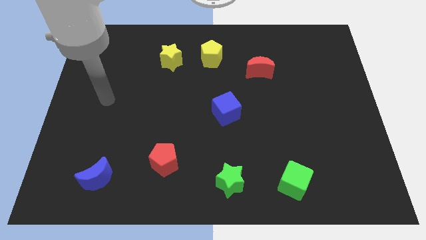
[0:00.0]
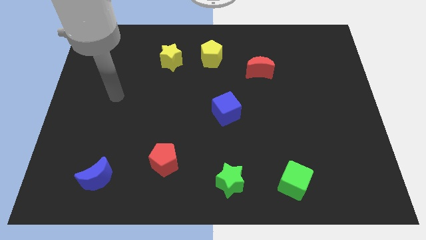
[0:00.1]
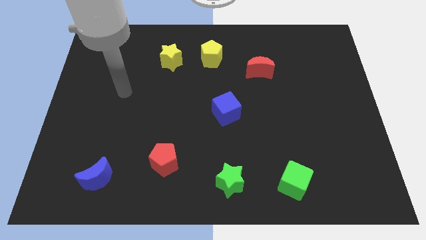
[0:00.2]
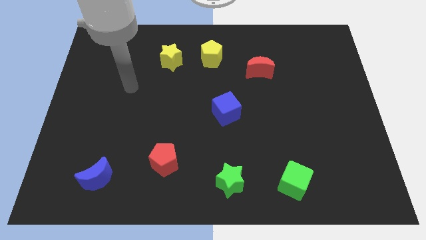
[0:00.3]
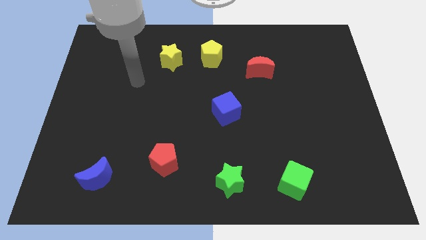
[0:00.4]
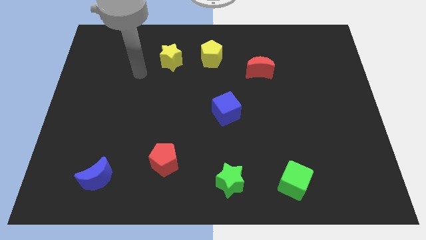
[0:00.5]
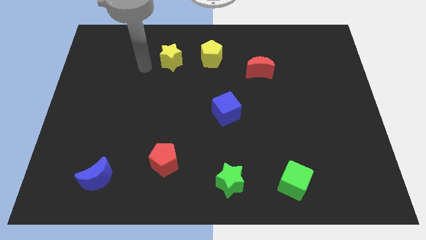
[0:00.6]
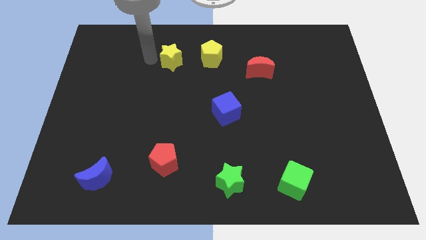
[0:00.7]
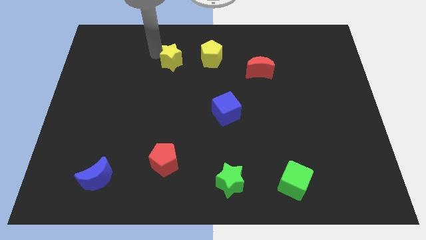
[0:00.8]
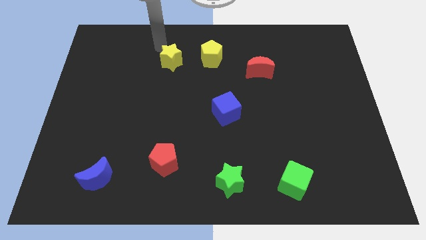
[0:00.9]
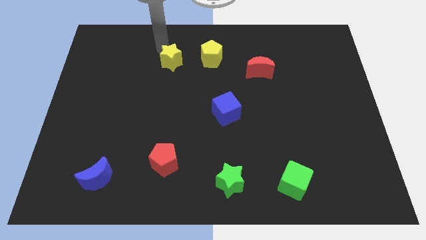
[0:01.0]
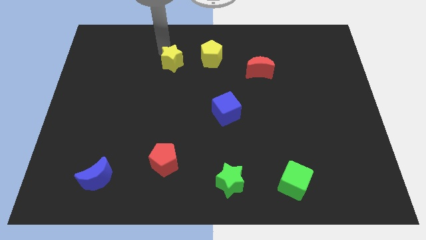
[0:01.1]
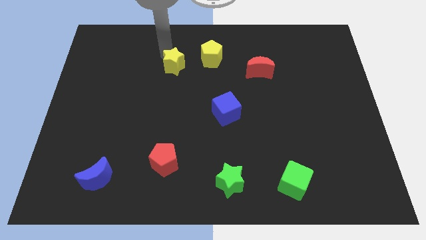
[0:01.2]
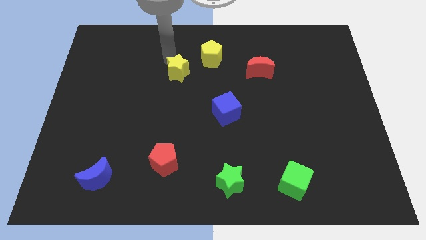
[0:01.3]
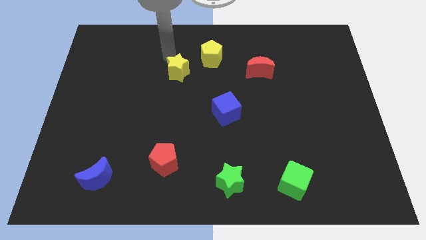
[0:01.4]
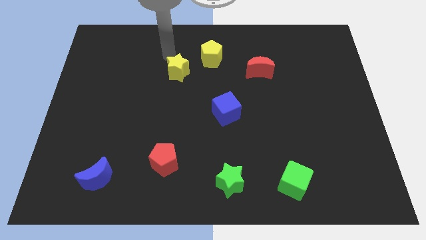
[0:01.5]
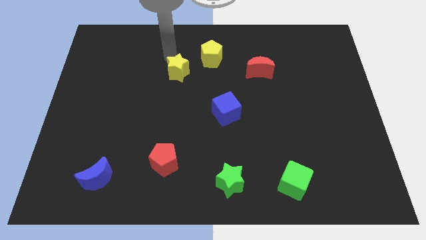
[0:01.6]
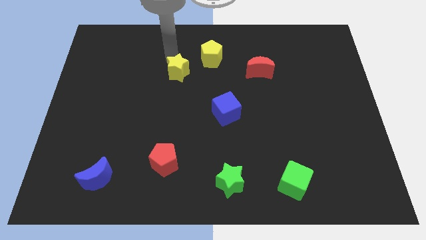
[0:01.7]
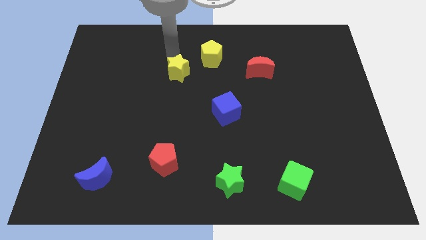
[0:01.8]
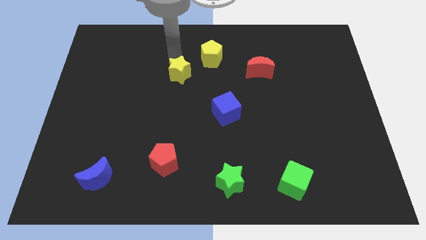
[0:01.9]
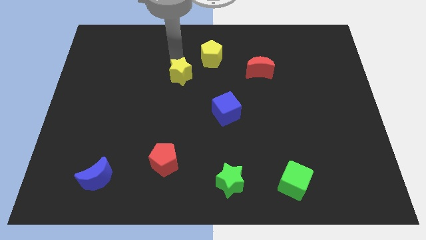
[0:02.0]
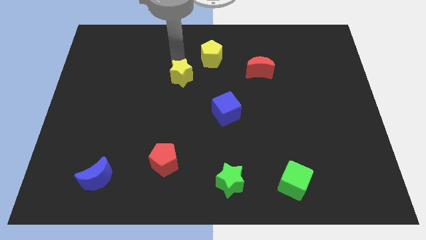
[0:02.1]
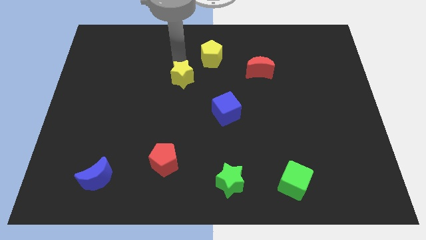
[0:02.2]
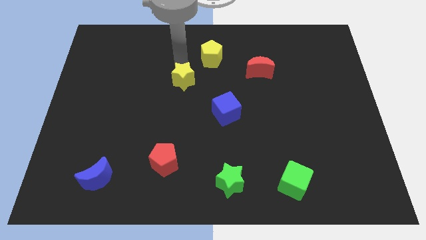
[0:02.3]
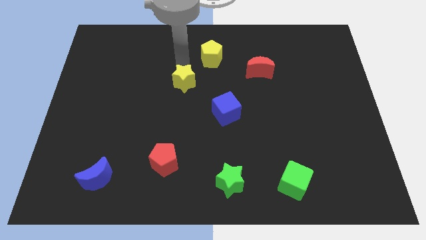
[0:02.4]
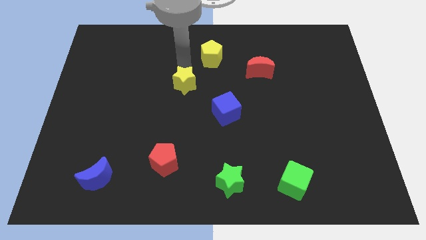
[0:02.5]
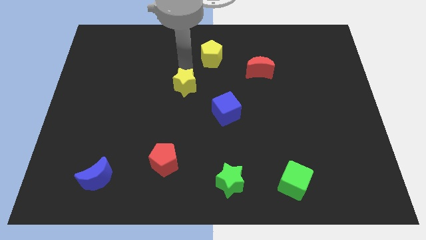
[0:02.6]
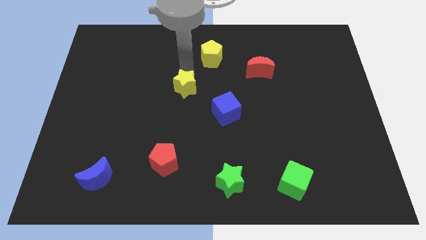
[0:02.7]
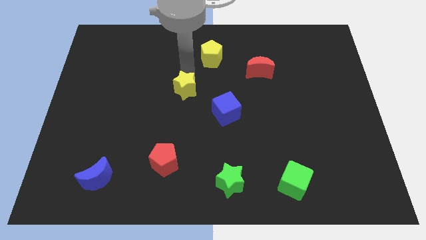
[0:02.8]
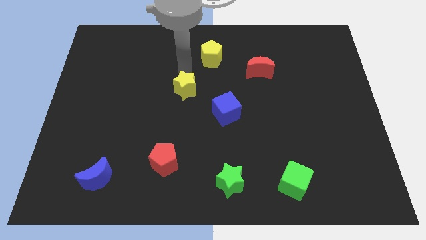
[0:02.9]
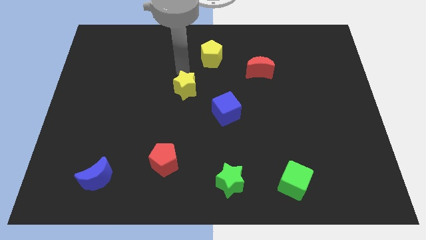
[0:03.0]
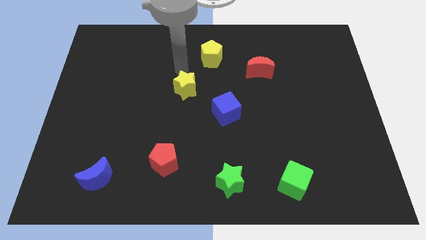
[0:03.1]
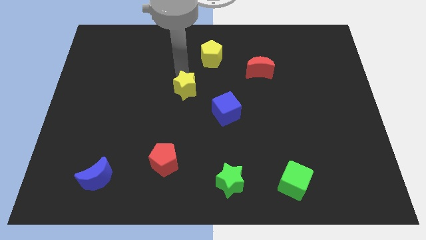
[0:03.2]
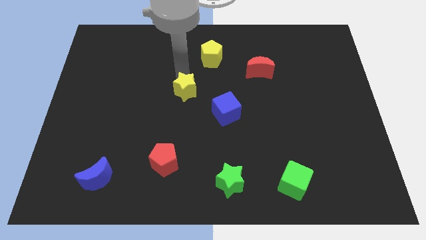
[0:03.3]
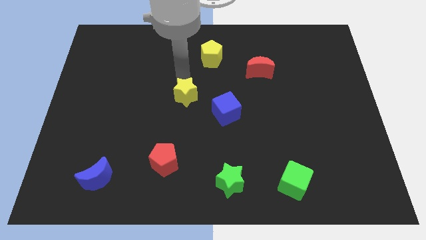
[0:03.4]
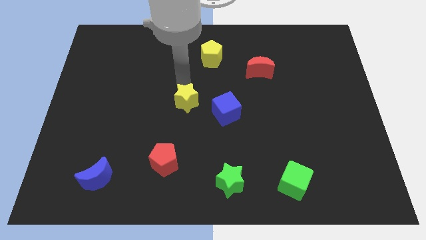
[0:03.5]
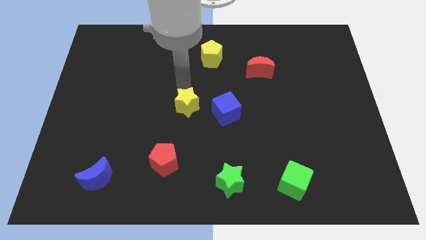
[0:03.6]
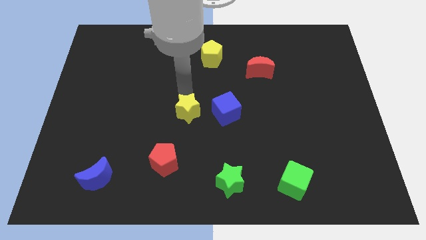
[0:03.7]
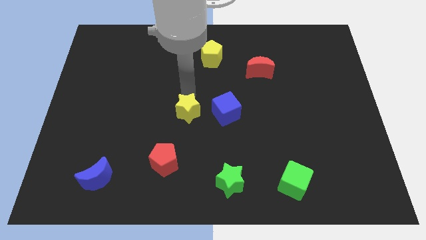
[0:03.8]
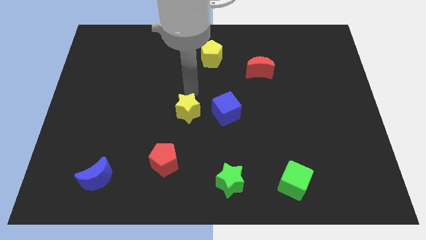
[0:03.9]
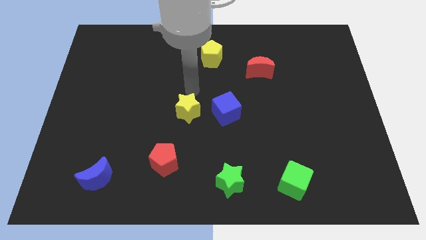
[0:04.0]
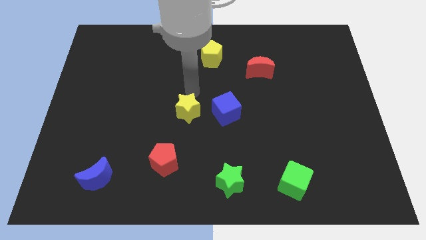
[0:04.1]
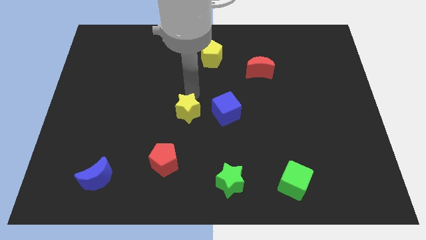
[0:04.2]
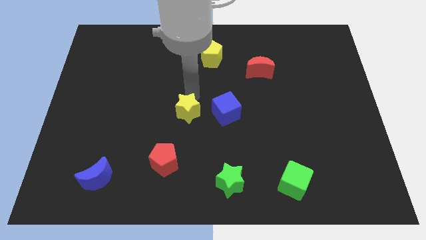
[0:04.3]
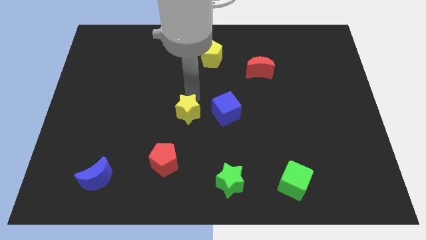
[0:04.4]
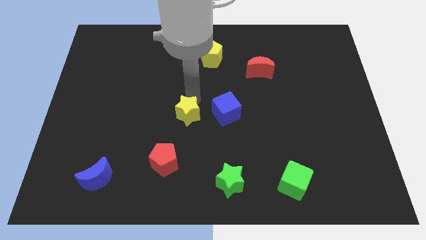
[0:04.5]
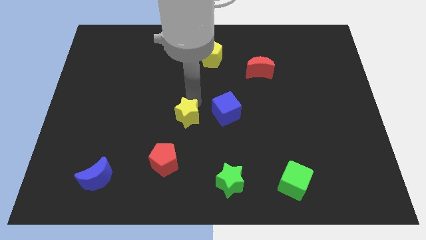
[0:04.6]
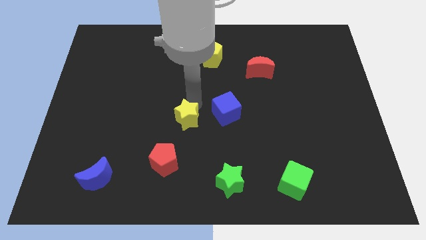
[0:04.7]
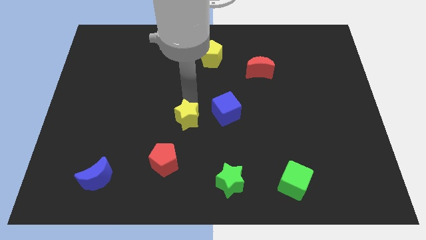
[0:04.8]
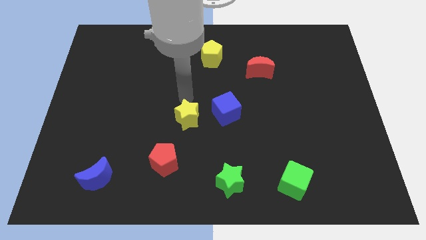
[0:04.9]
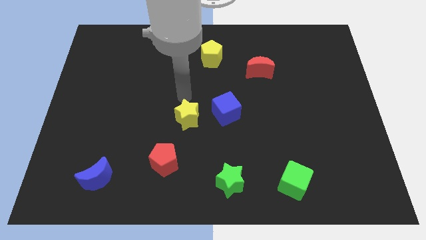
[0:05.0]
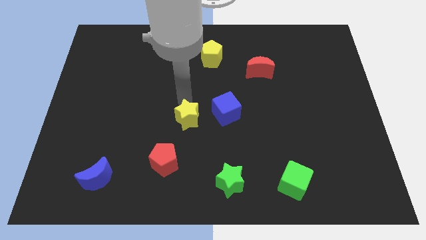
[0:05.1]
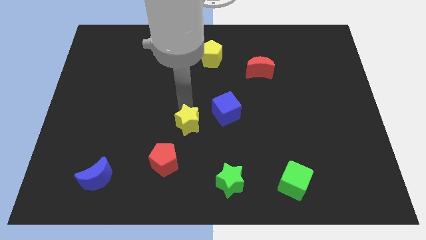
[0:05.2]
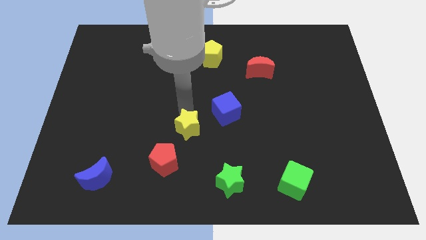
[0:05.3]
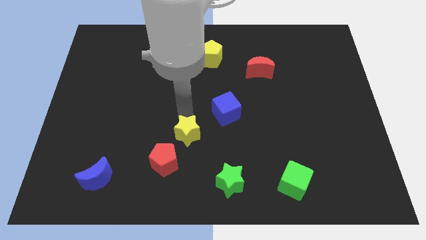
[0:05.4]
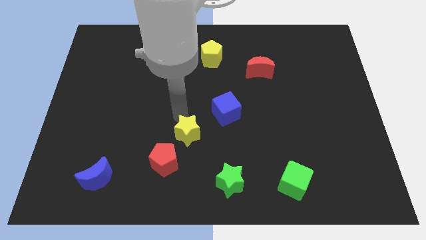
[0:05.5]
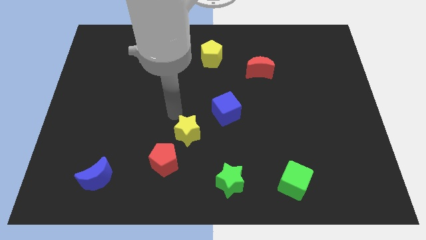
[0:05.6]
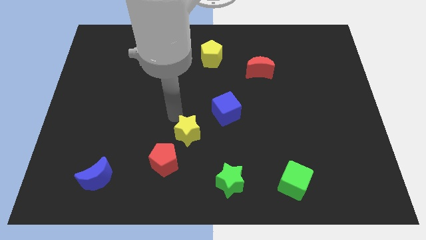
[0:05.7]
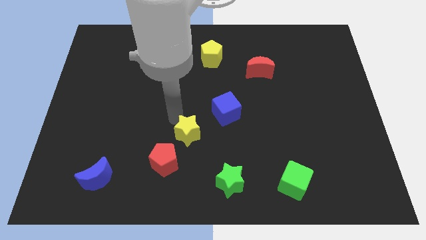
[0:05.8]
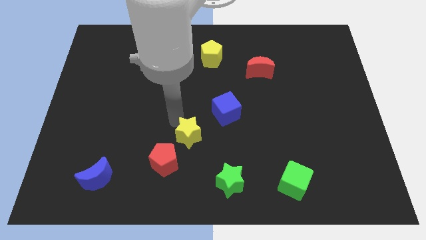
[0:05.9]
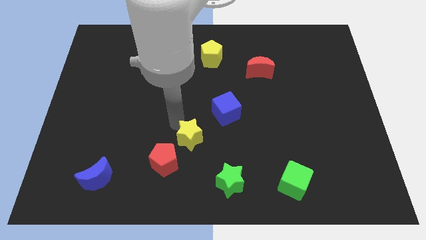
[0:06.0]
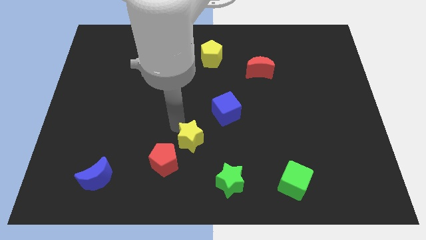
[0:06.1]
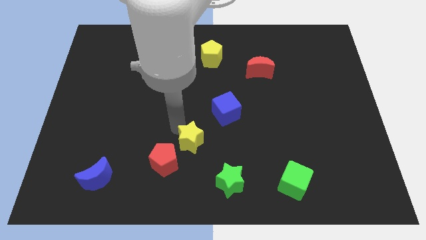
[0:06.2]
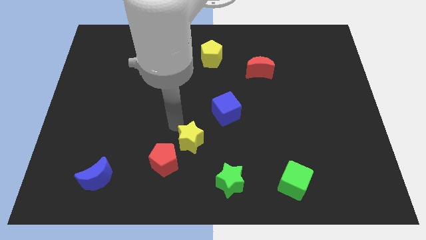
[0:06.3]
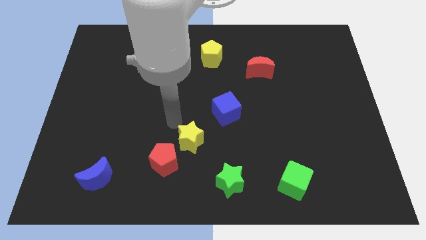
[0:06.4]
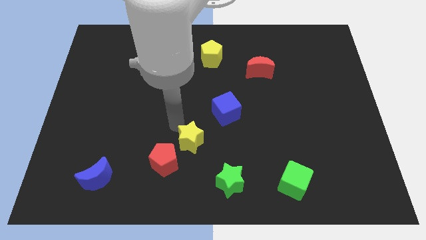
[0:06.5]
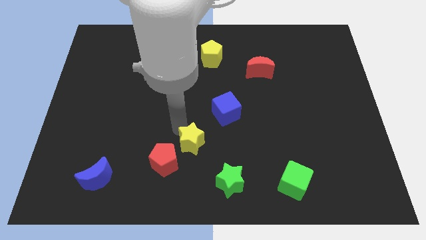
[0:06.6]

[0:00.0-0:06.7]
put the yellow star right of the red pentagon
